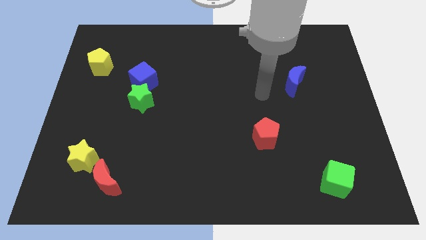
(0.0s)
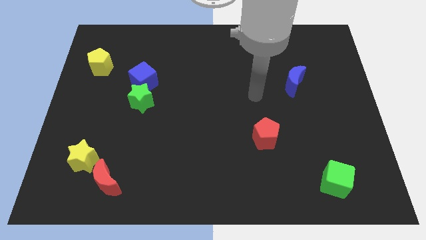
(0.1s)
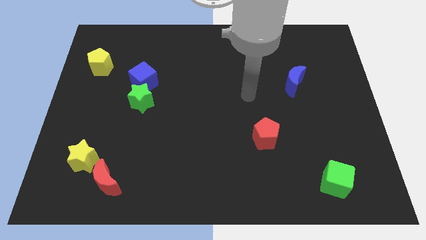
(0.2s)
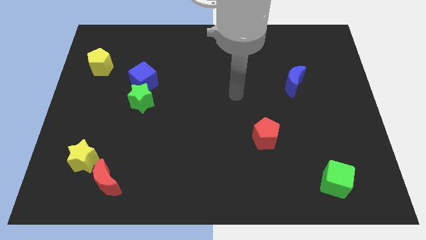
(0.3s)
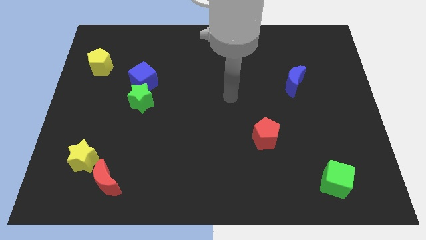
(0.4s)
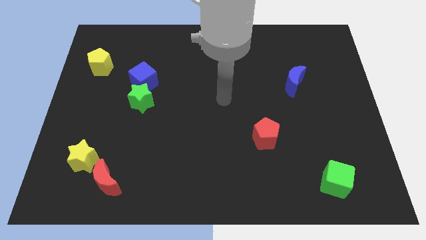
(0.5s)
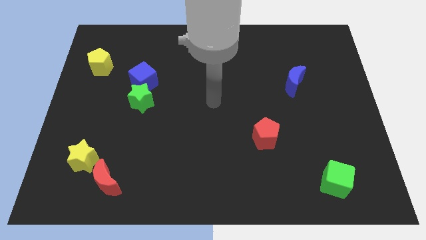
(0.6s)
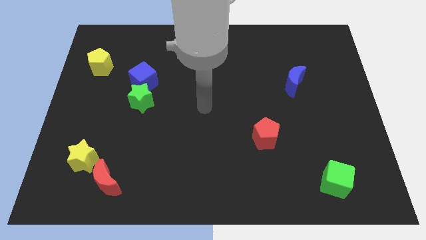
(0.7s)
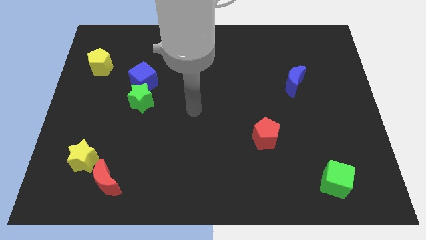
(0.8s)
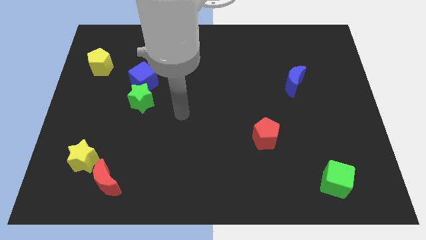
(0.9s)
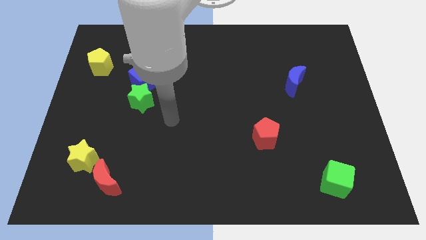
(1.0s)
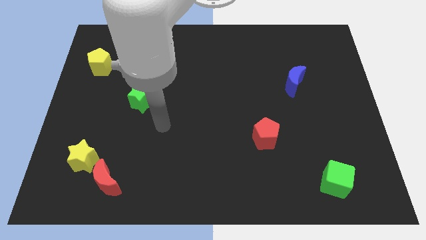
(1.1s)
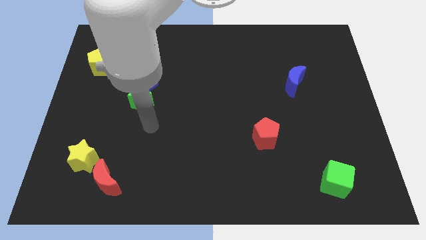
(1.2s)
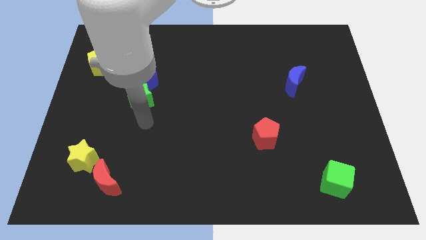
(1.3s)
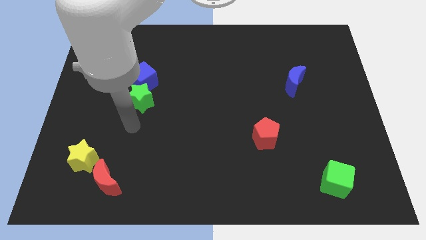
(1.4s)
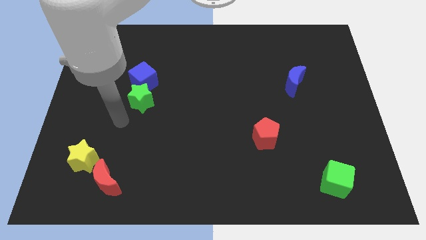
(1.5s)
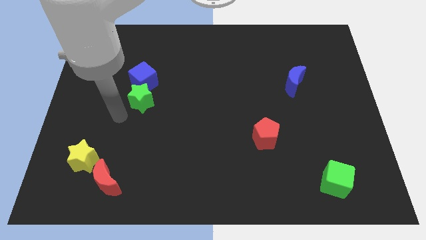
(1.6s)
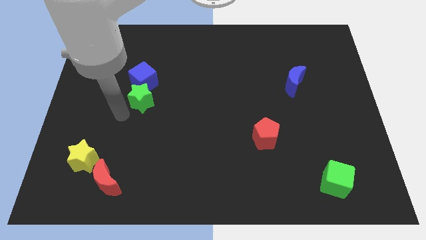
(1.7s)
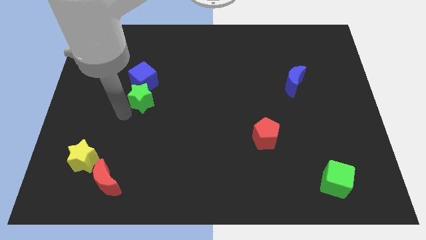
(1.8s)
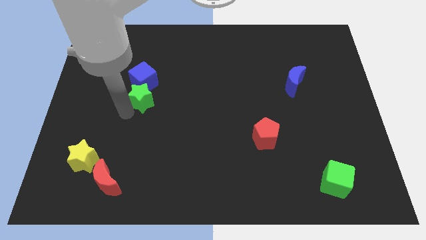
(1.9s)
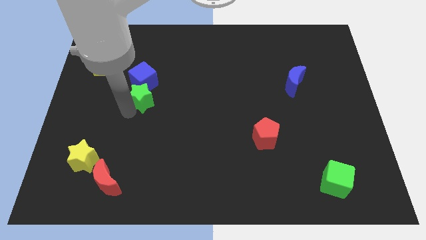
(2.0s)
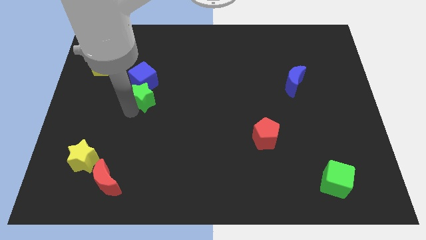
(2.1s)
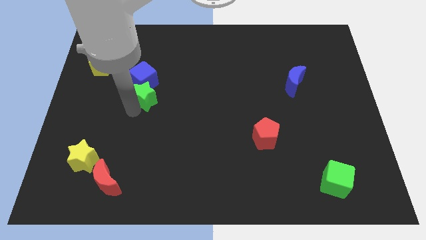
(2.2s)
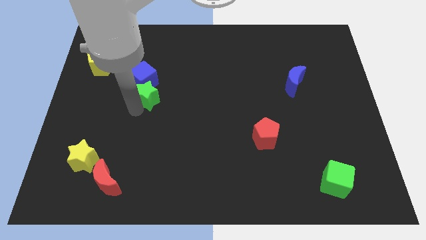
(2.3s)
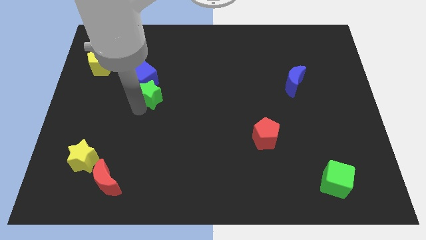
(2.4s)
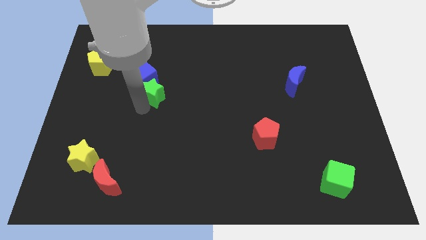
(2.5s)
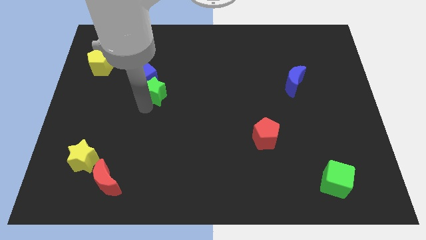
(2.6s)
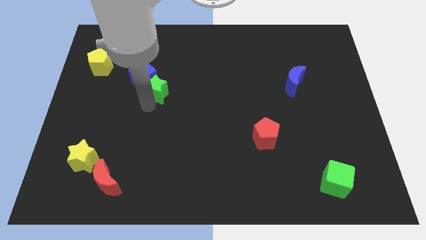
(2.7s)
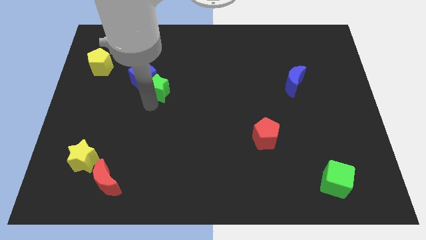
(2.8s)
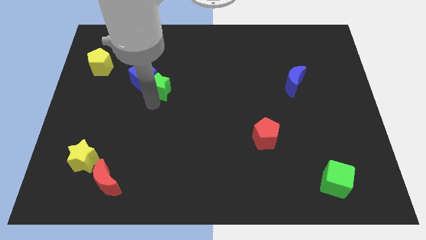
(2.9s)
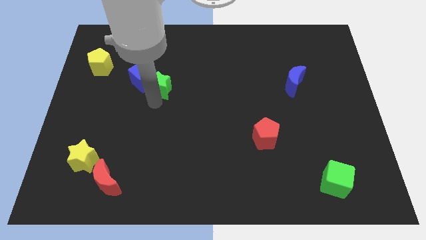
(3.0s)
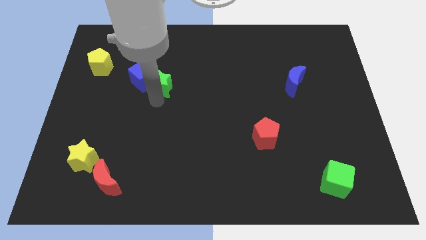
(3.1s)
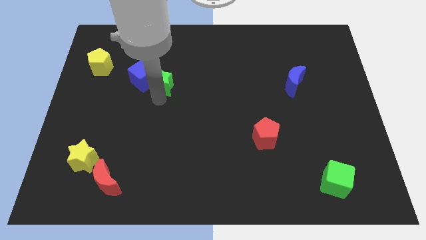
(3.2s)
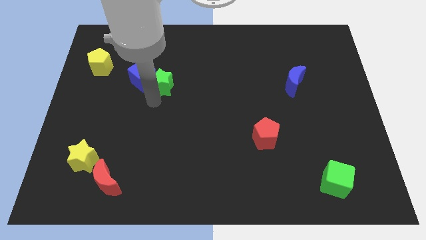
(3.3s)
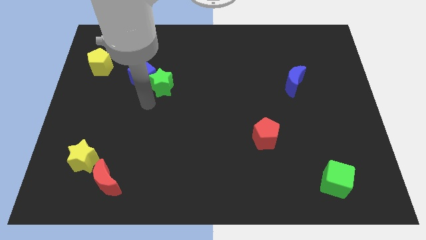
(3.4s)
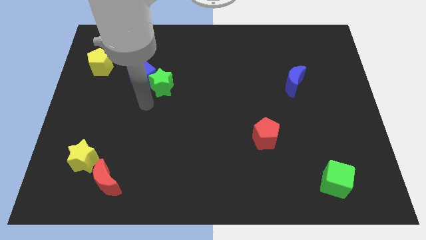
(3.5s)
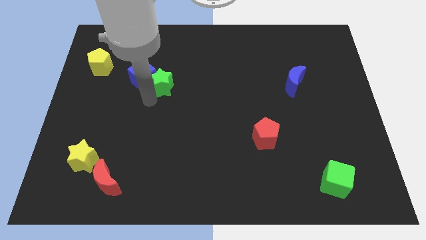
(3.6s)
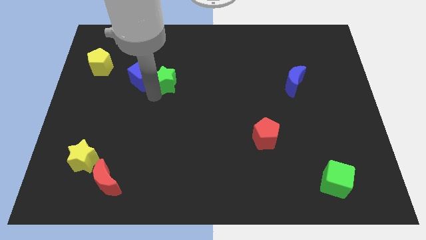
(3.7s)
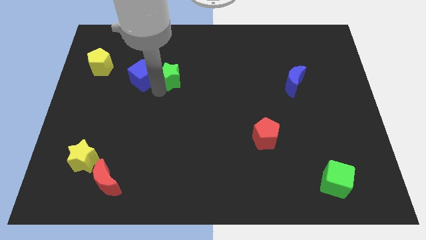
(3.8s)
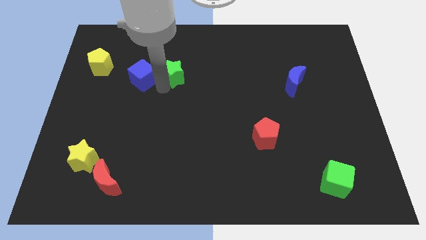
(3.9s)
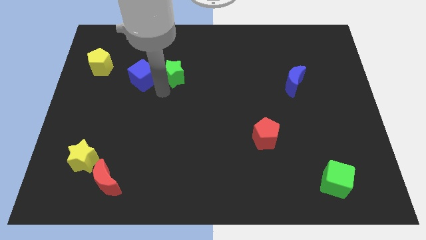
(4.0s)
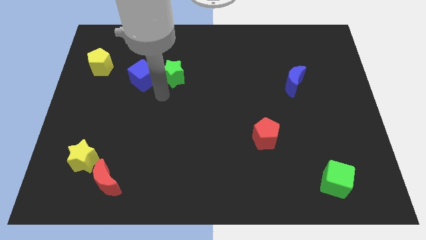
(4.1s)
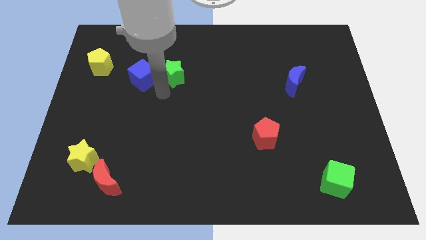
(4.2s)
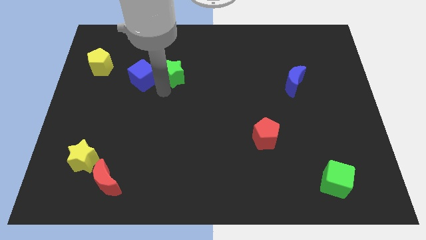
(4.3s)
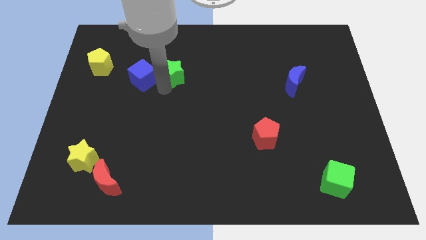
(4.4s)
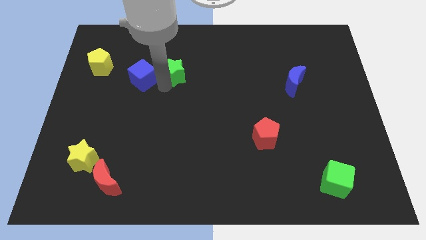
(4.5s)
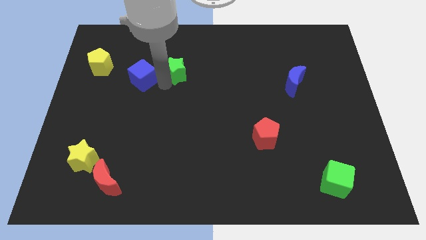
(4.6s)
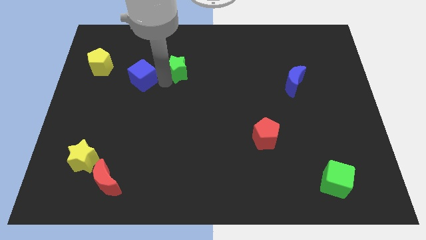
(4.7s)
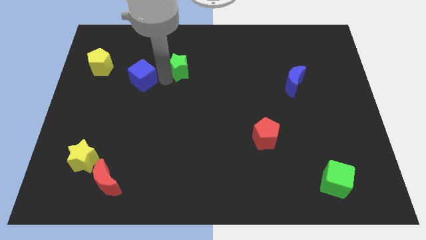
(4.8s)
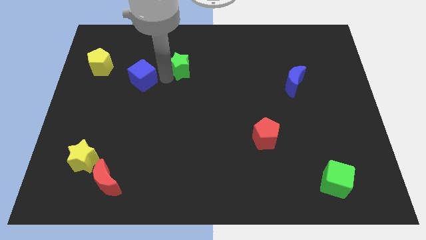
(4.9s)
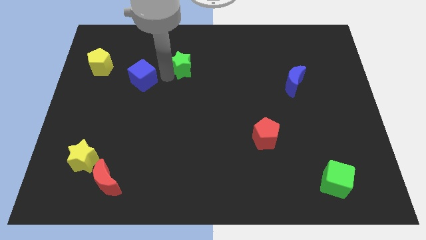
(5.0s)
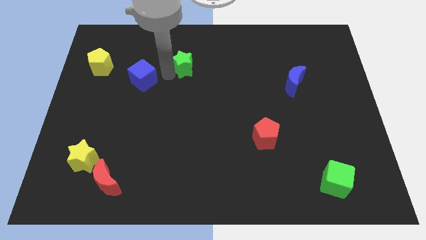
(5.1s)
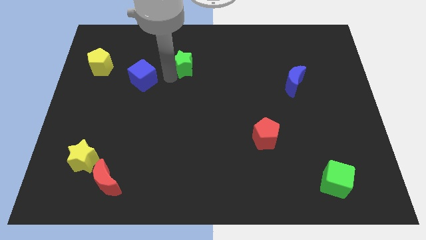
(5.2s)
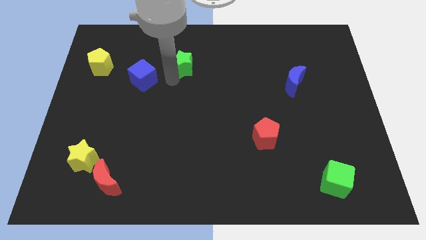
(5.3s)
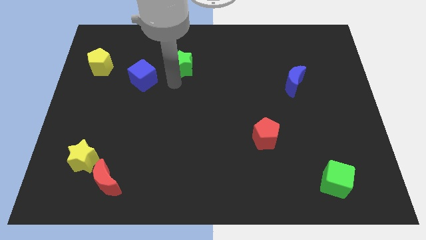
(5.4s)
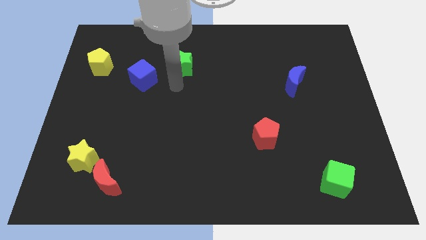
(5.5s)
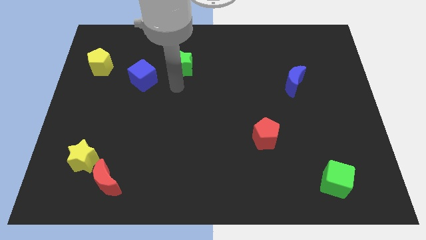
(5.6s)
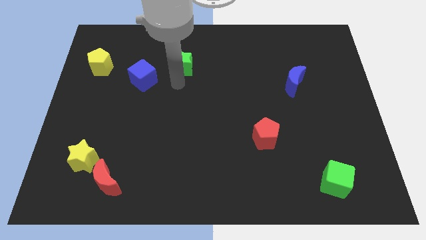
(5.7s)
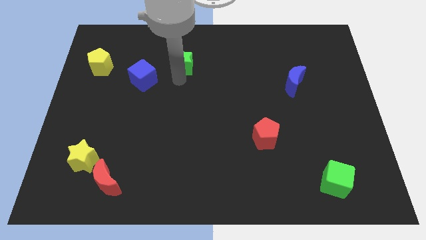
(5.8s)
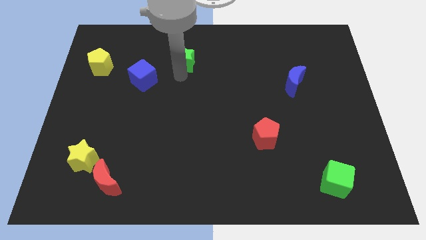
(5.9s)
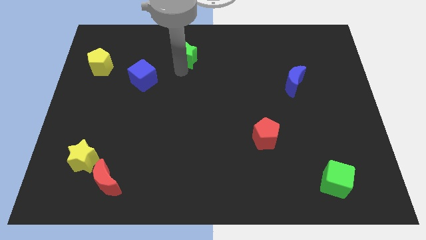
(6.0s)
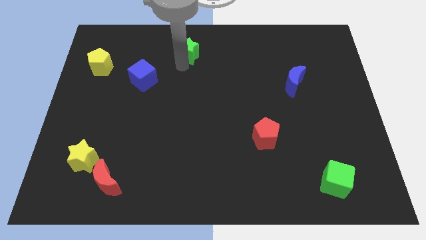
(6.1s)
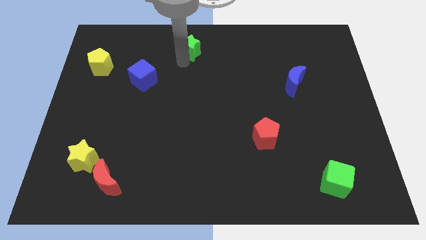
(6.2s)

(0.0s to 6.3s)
move the green star to the towards your base

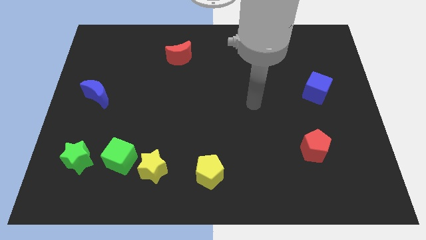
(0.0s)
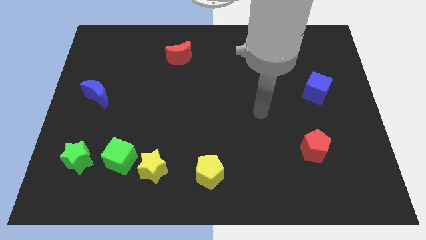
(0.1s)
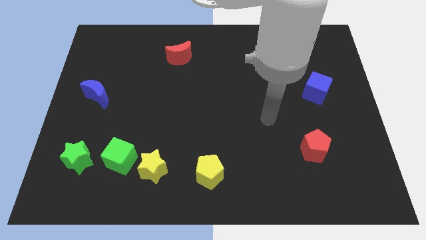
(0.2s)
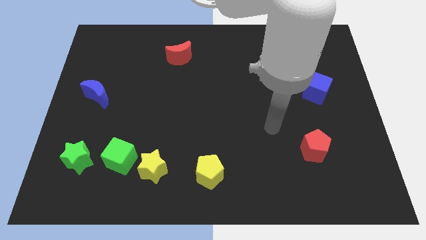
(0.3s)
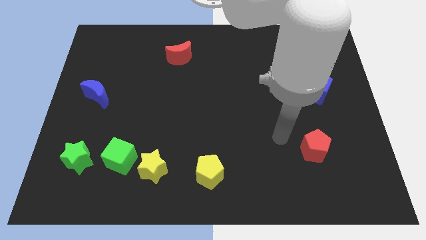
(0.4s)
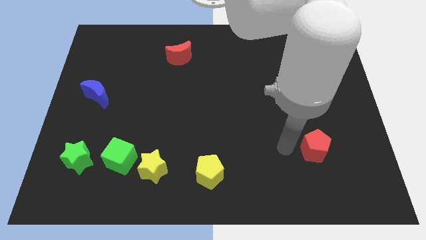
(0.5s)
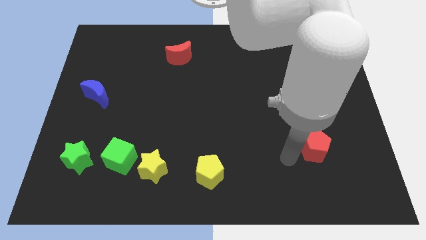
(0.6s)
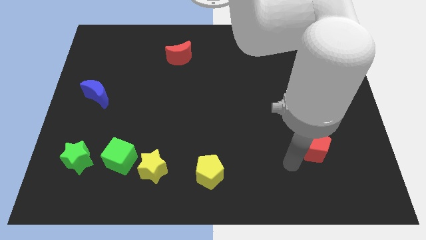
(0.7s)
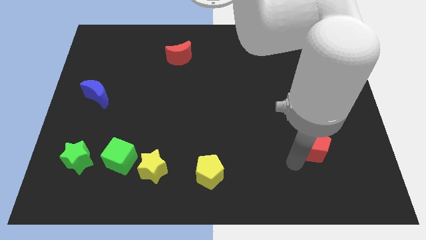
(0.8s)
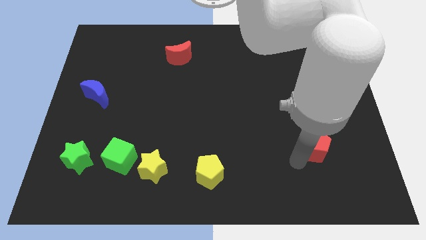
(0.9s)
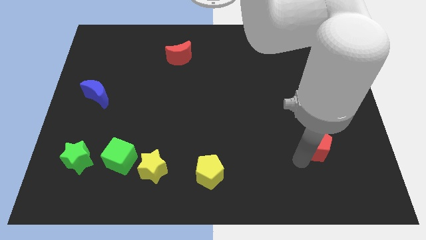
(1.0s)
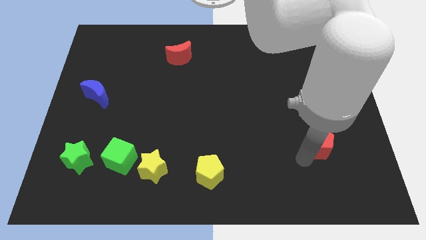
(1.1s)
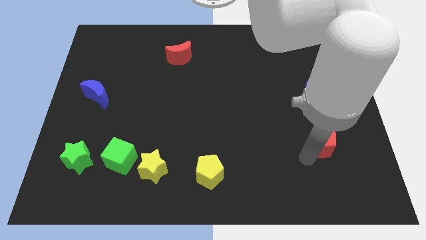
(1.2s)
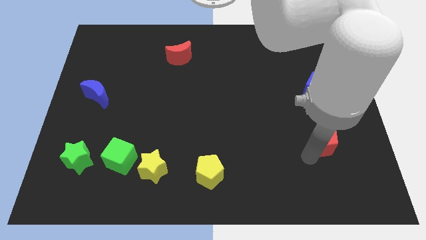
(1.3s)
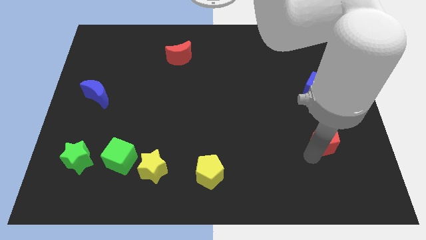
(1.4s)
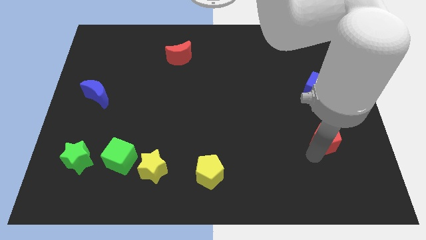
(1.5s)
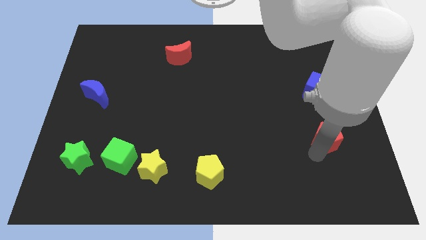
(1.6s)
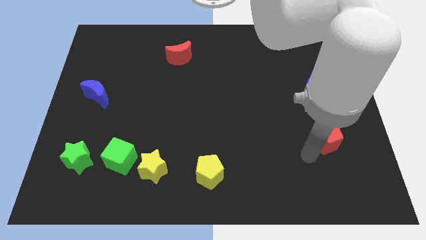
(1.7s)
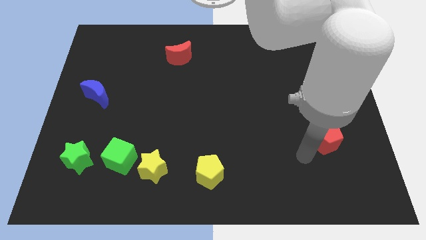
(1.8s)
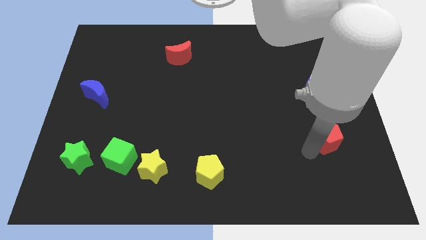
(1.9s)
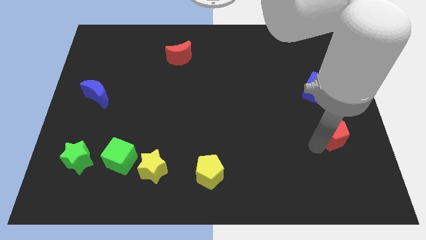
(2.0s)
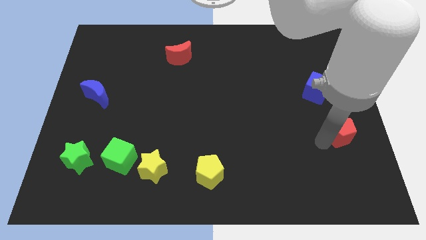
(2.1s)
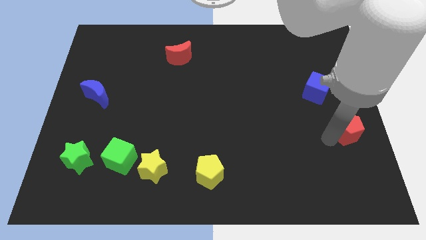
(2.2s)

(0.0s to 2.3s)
move the red pentagon to the right side
